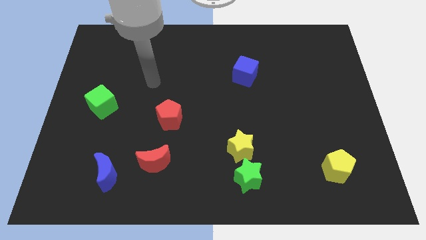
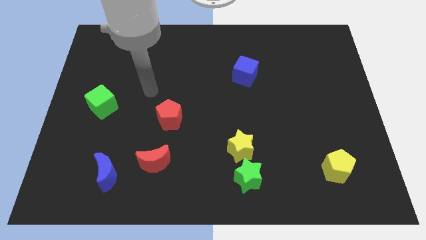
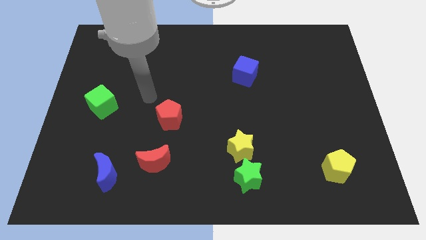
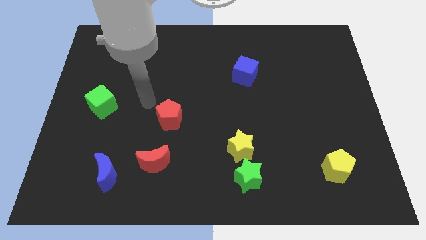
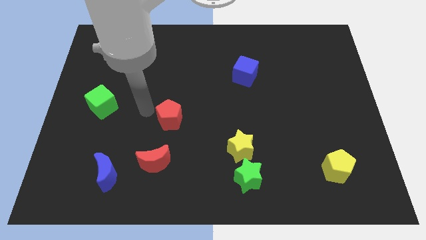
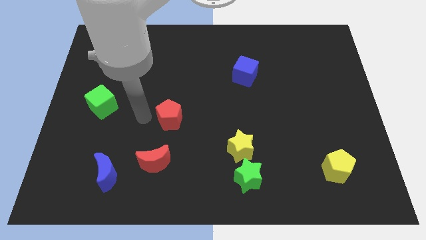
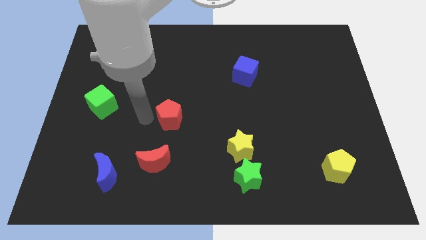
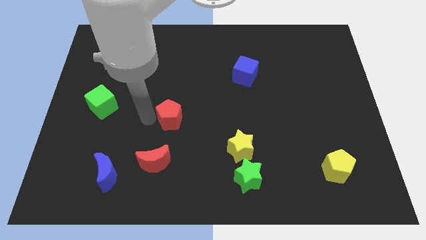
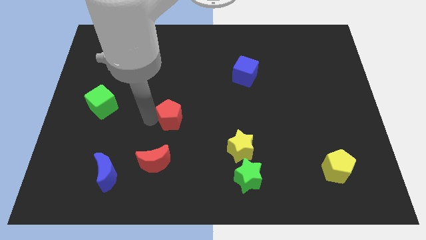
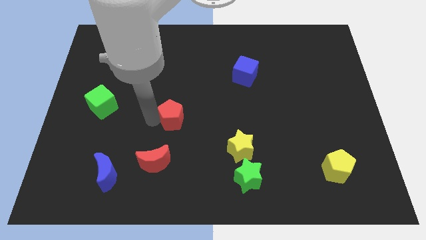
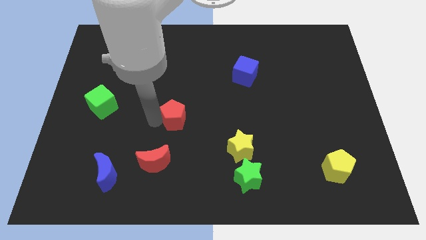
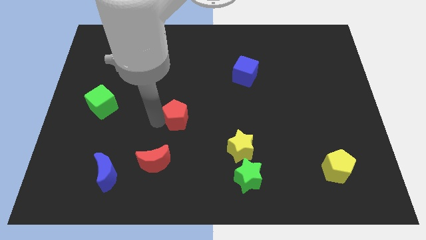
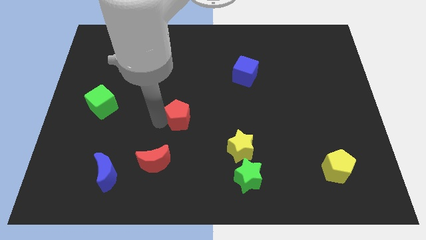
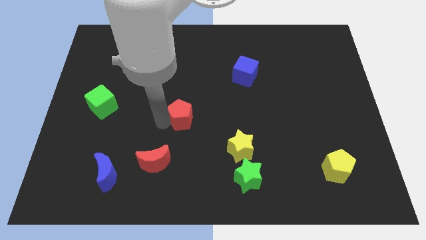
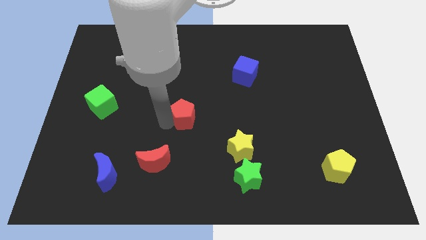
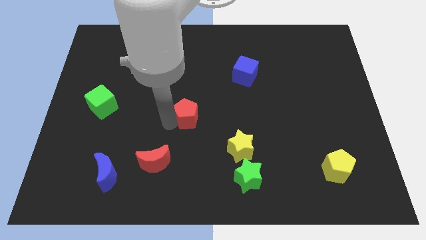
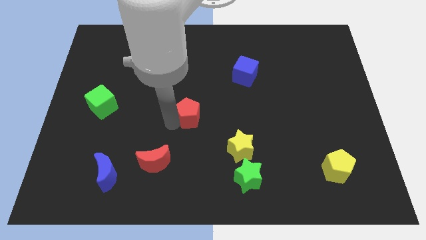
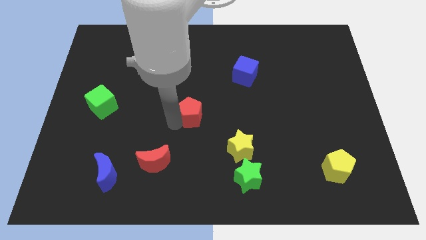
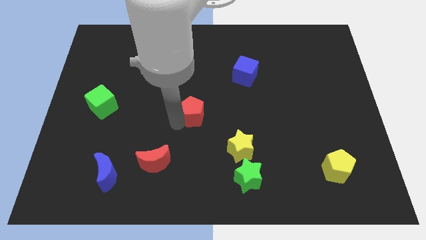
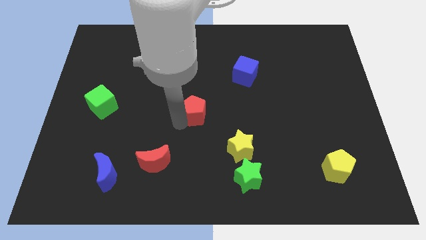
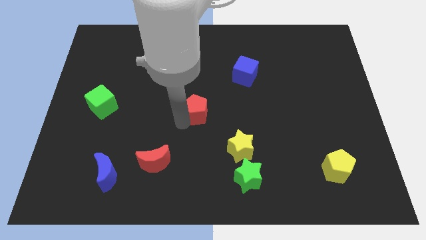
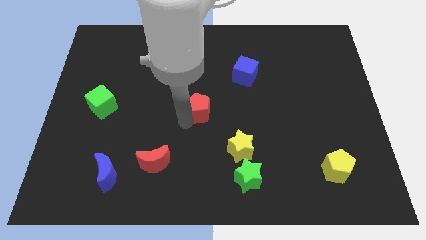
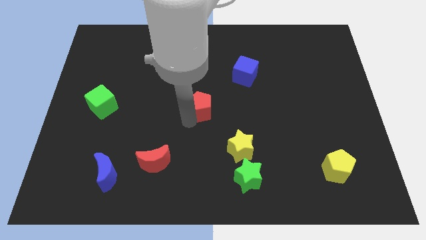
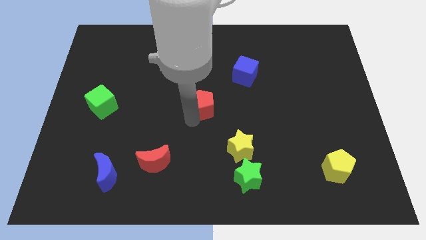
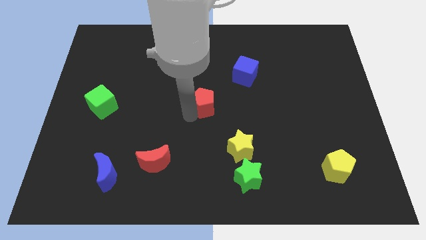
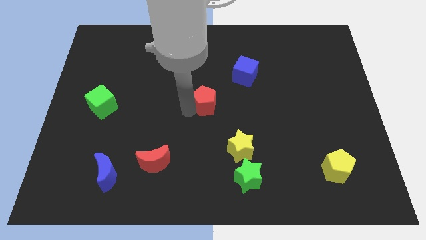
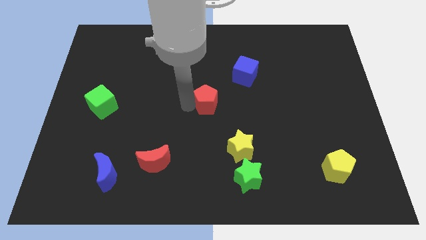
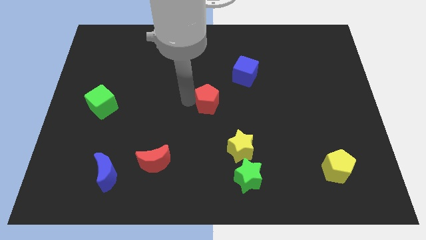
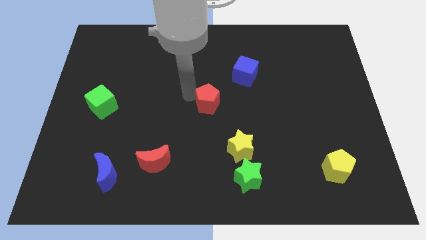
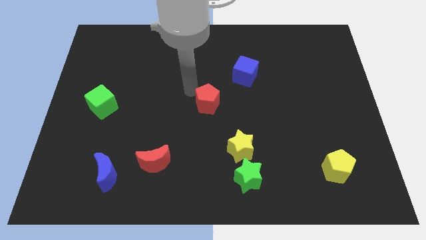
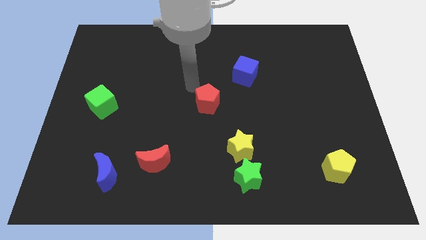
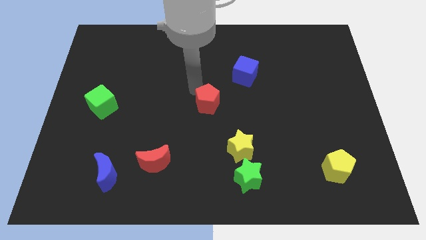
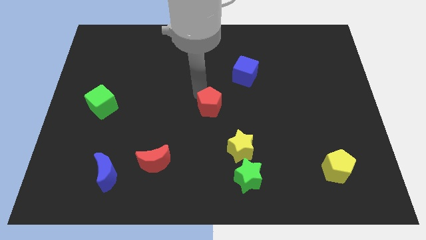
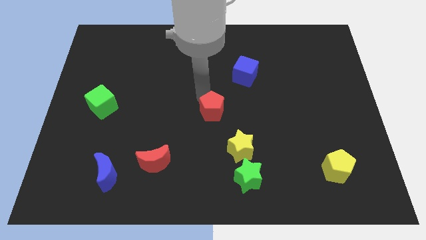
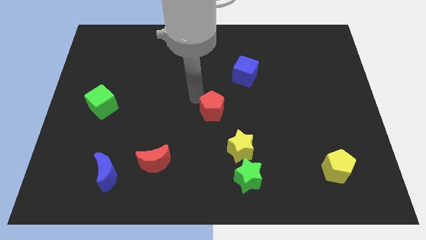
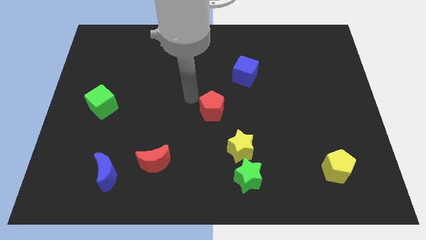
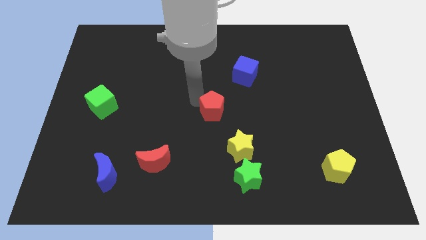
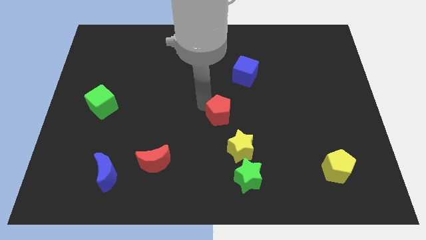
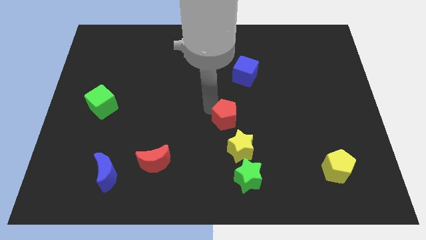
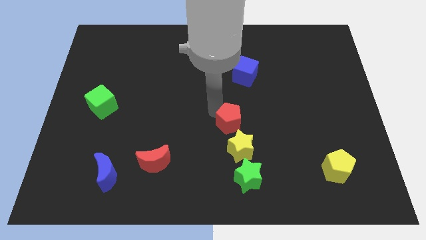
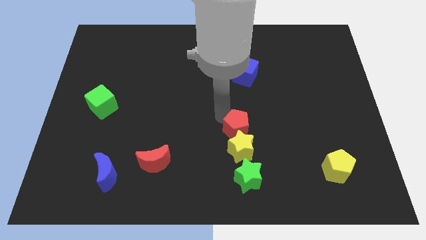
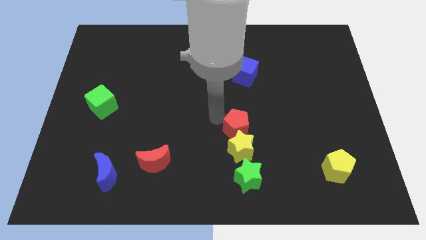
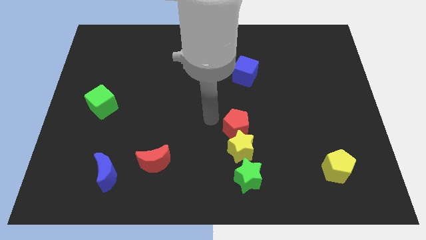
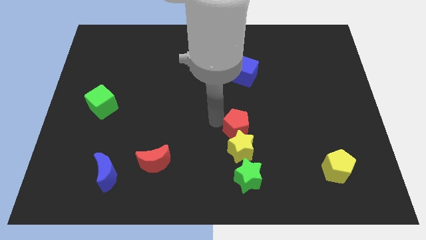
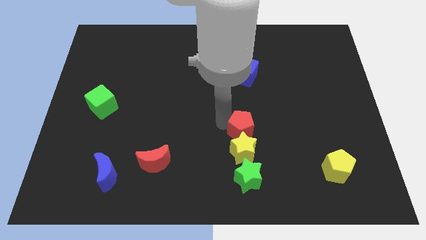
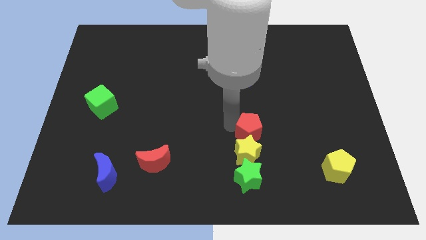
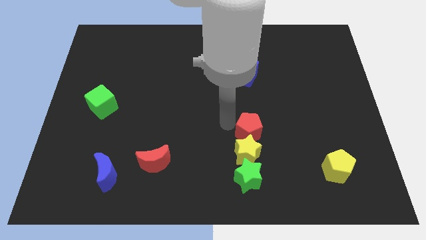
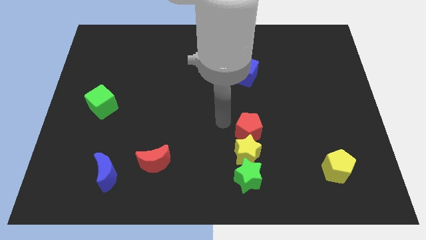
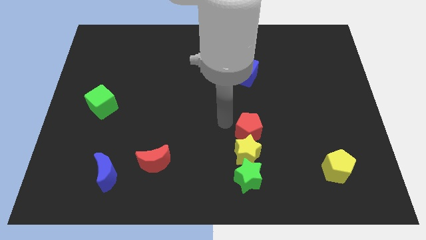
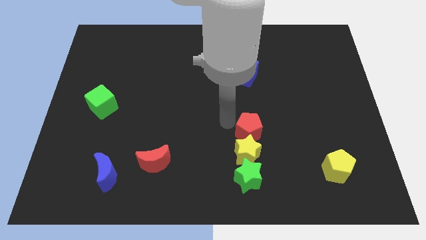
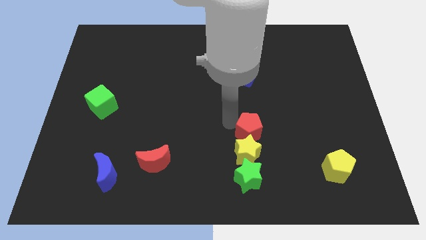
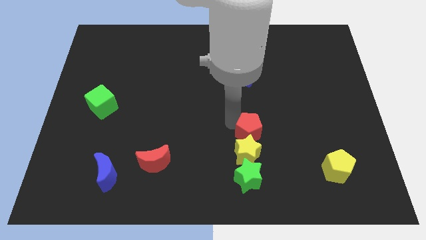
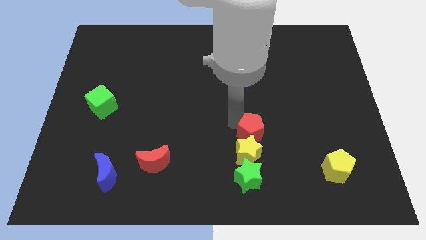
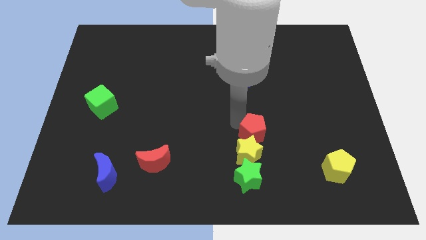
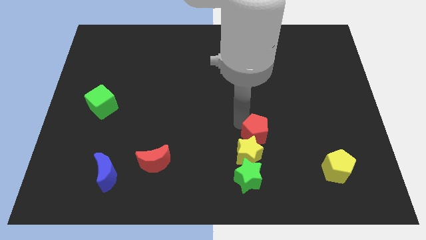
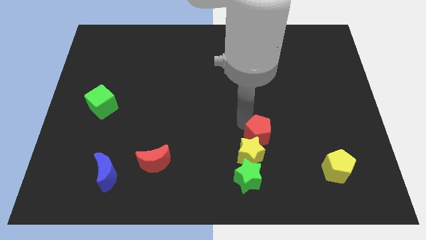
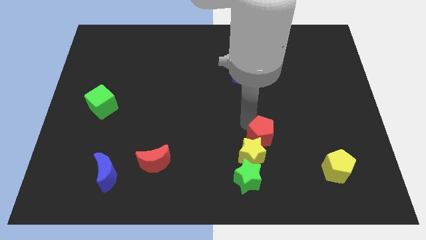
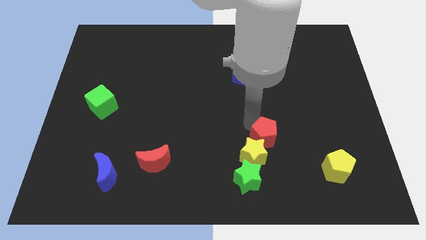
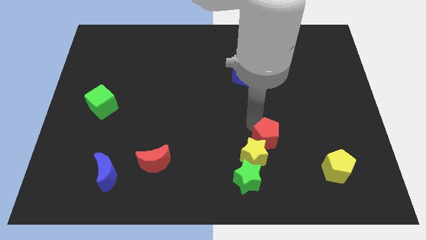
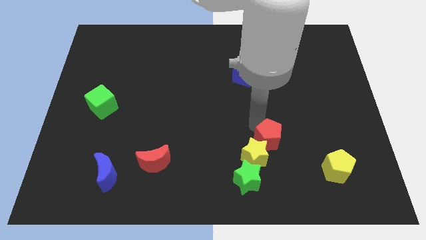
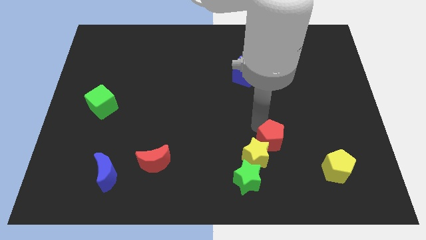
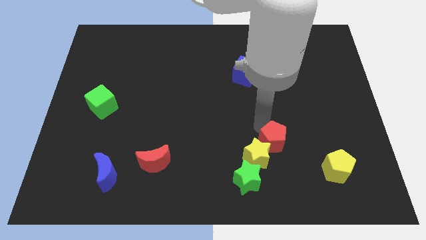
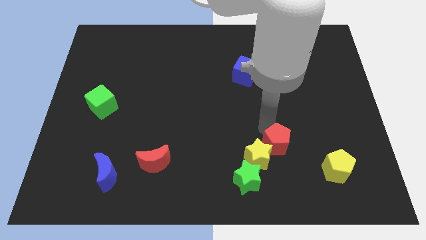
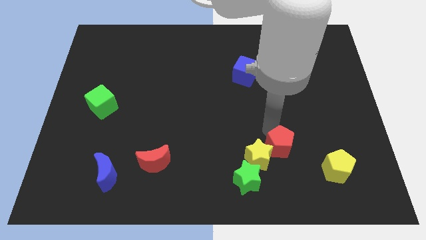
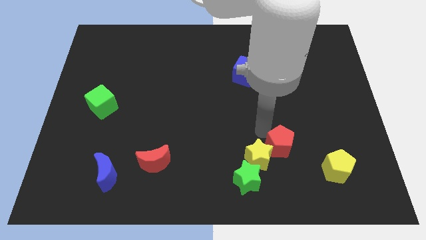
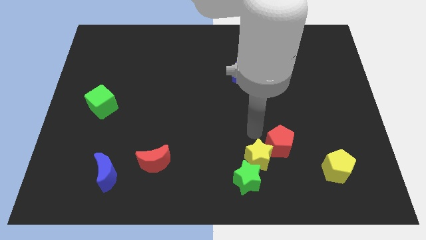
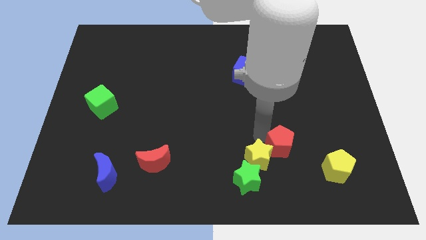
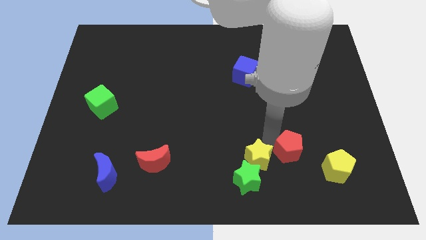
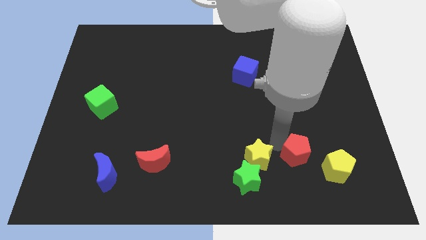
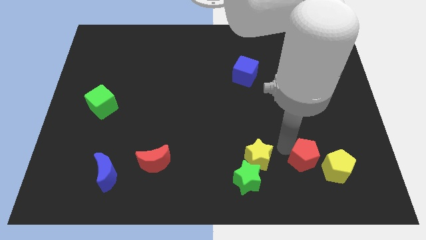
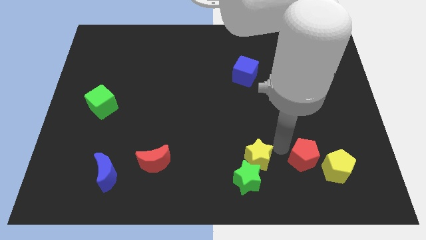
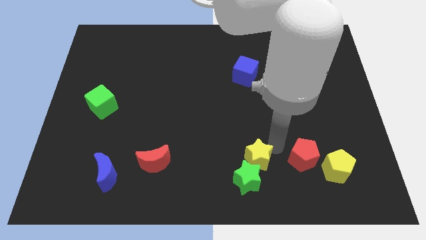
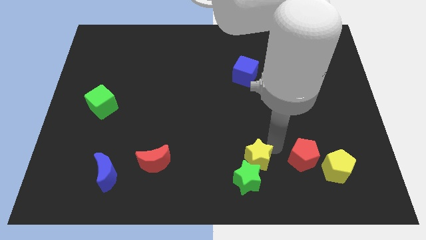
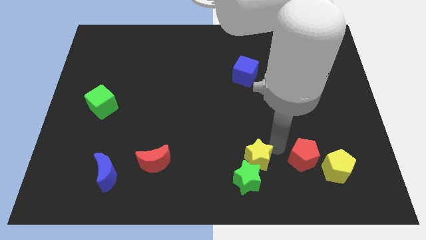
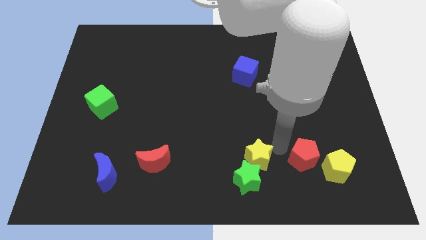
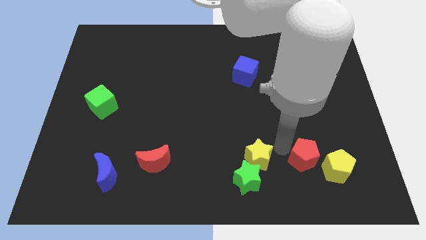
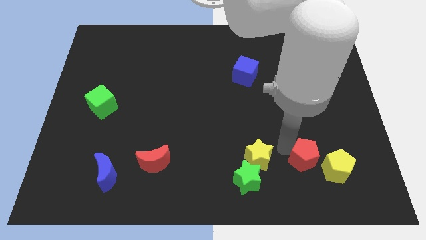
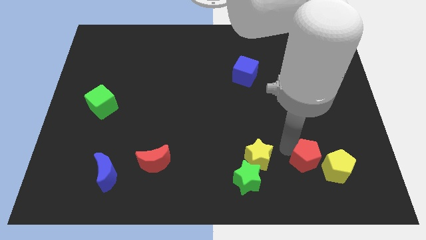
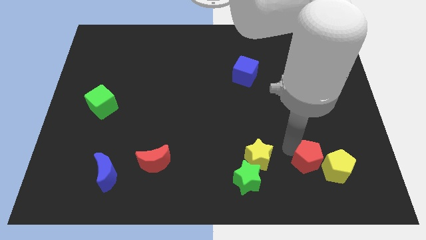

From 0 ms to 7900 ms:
move the red pentagon next to the yellow pentagon
